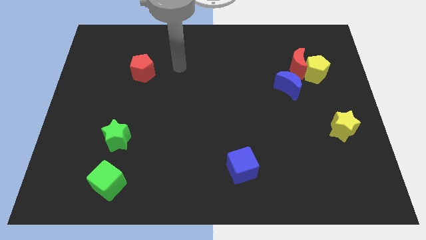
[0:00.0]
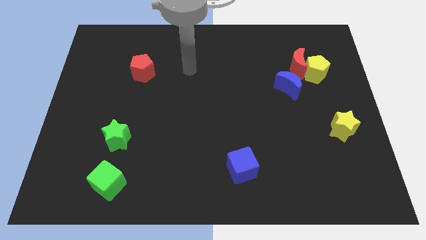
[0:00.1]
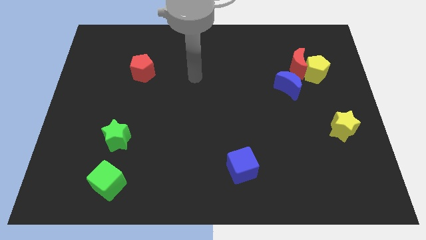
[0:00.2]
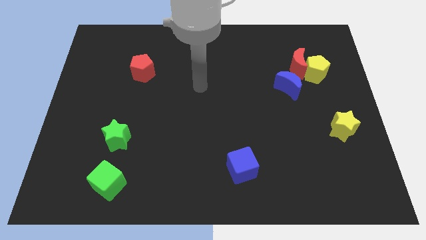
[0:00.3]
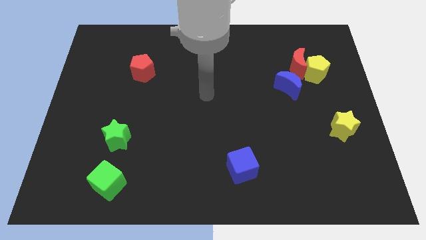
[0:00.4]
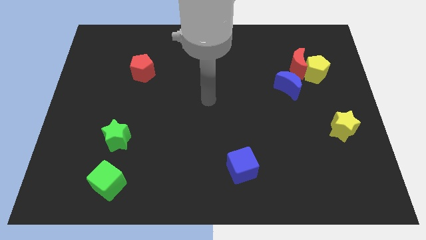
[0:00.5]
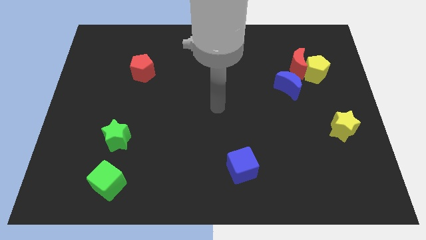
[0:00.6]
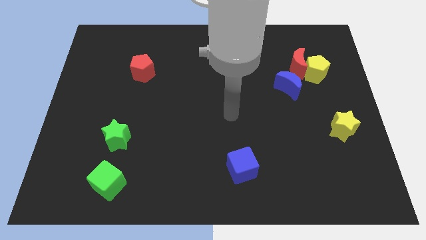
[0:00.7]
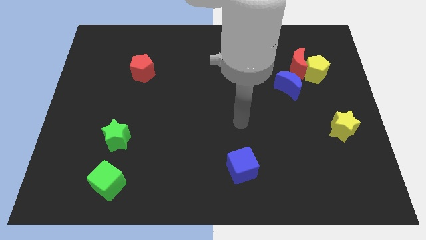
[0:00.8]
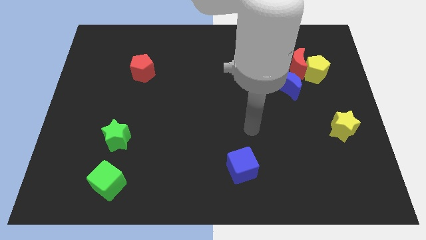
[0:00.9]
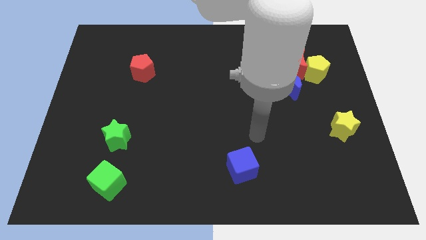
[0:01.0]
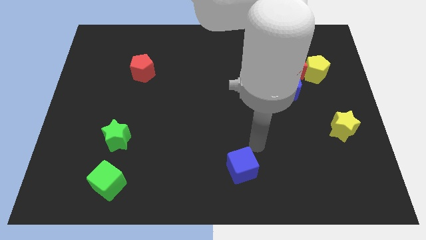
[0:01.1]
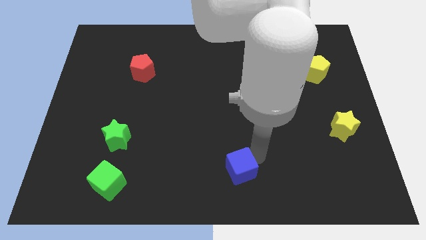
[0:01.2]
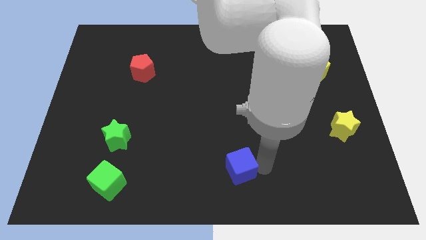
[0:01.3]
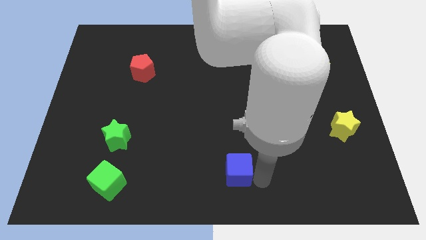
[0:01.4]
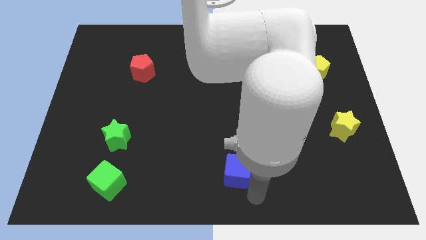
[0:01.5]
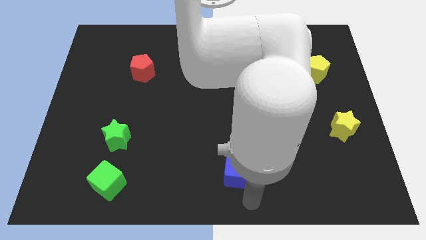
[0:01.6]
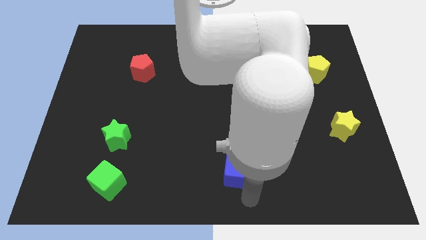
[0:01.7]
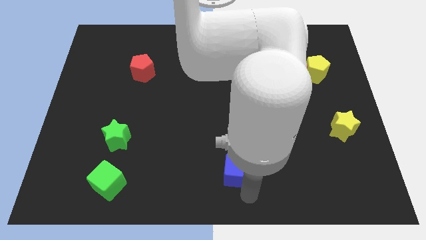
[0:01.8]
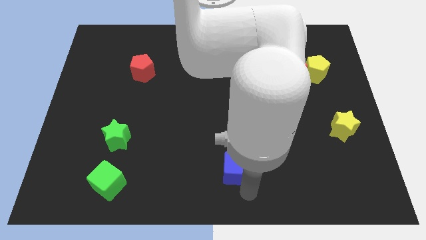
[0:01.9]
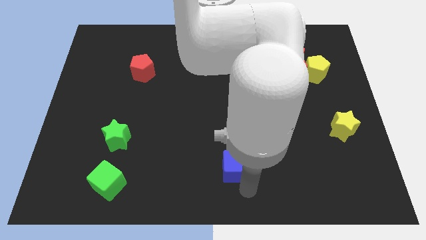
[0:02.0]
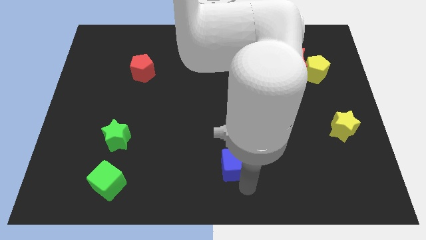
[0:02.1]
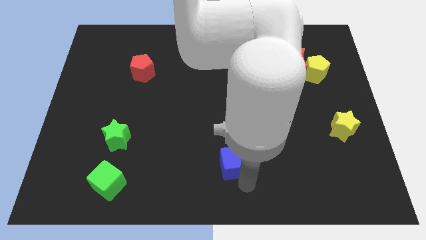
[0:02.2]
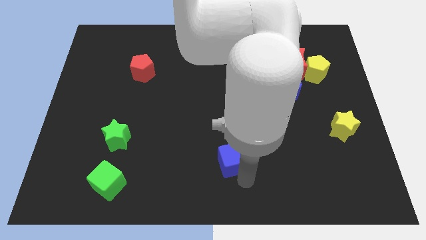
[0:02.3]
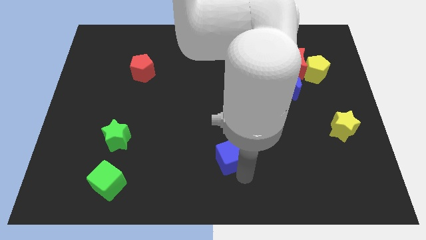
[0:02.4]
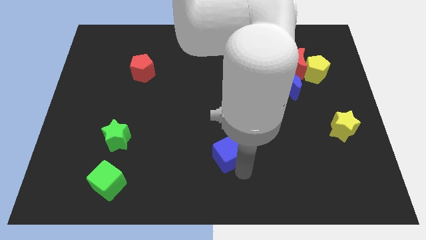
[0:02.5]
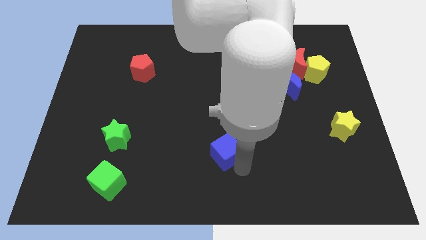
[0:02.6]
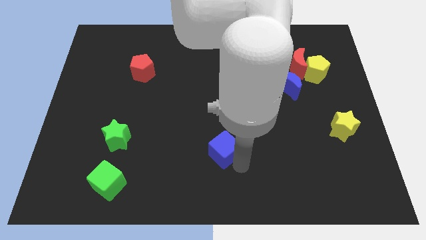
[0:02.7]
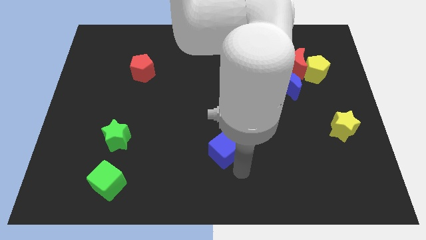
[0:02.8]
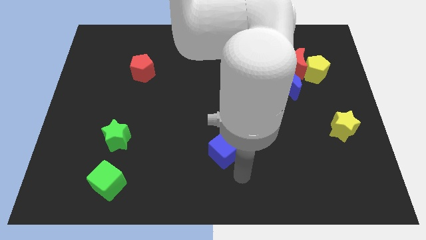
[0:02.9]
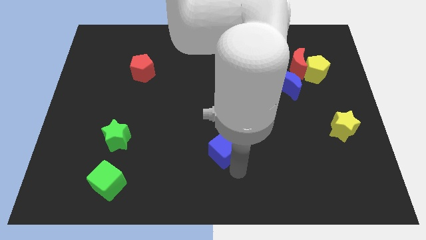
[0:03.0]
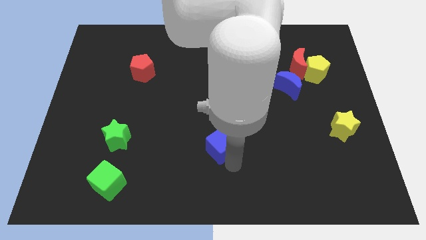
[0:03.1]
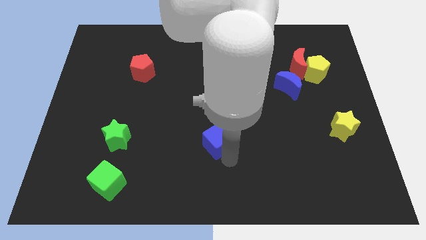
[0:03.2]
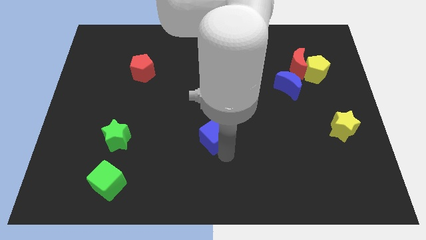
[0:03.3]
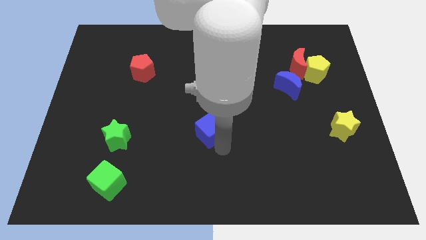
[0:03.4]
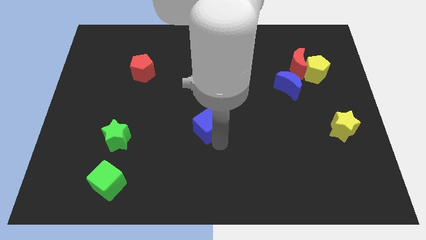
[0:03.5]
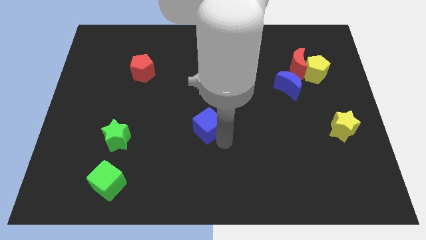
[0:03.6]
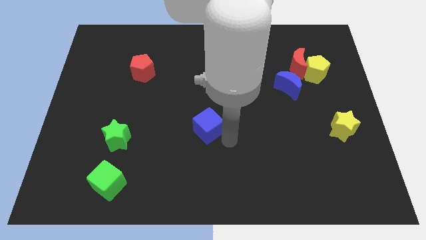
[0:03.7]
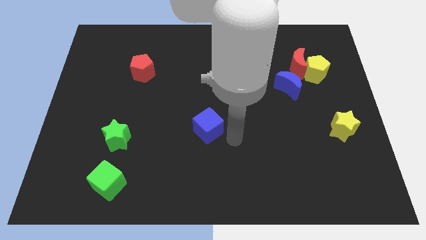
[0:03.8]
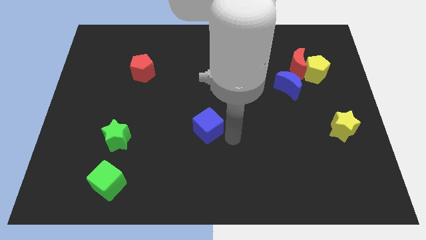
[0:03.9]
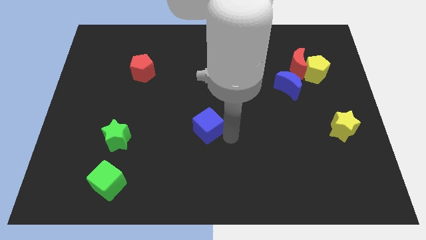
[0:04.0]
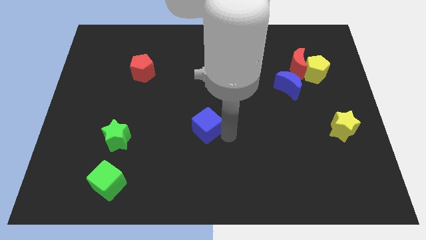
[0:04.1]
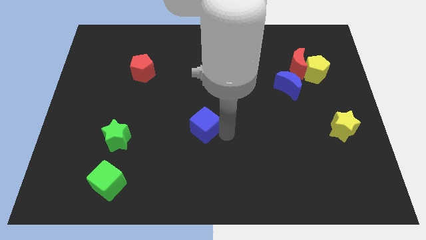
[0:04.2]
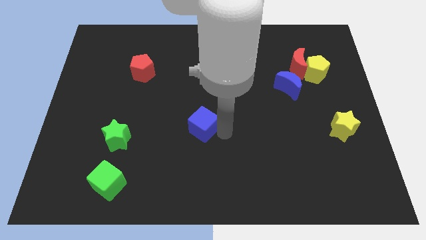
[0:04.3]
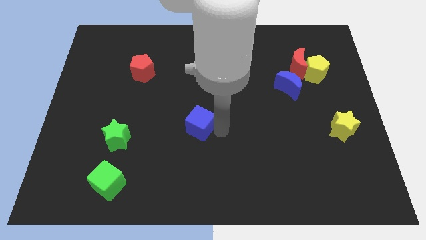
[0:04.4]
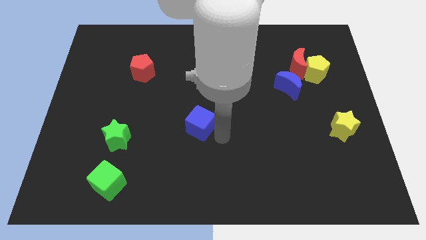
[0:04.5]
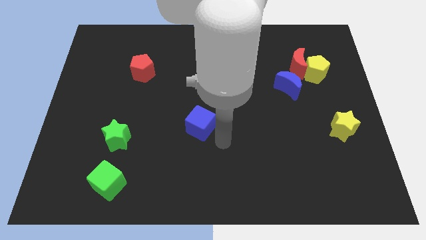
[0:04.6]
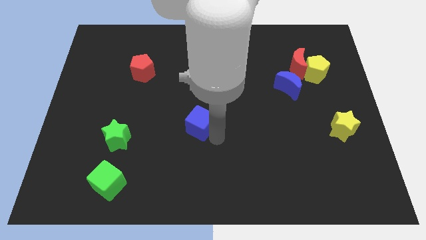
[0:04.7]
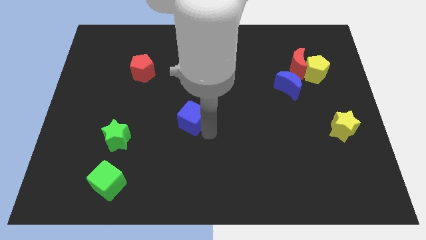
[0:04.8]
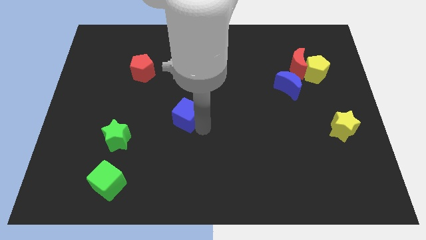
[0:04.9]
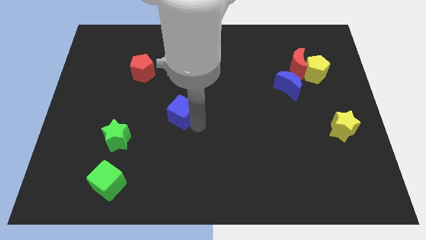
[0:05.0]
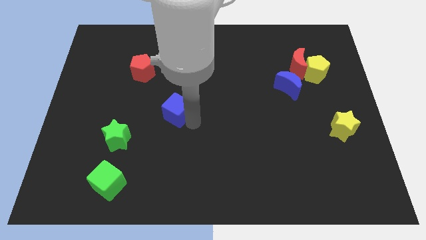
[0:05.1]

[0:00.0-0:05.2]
move the blue cube up and left

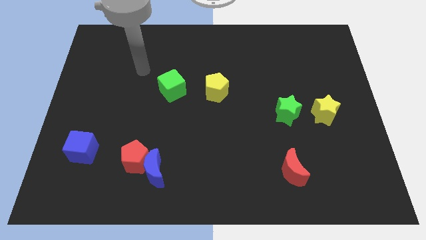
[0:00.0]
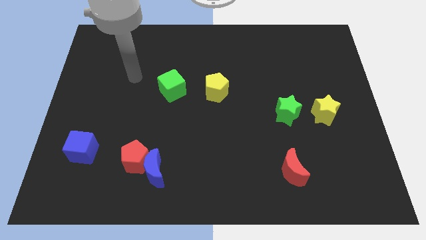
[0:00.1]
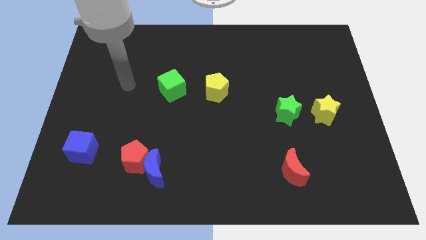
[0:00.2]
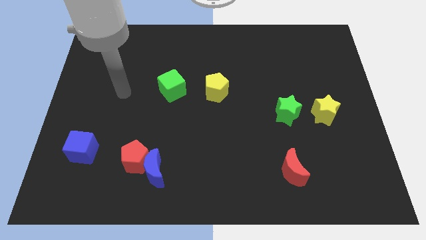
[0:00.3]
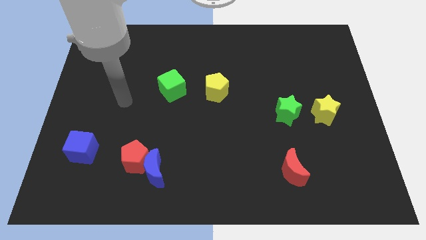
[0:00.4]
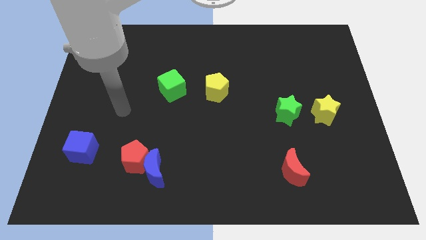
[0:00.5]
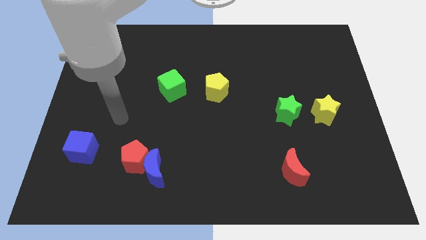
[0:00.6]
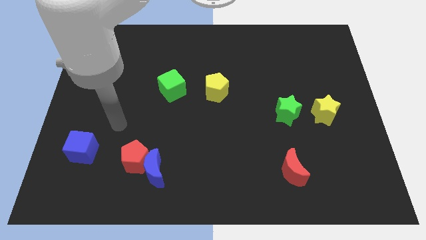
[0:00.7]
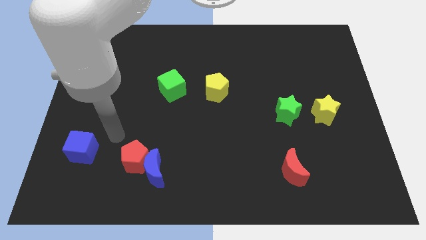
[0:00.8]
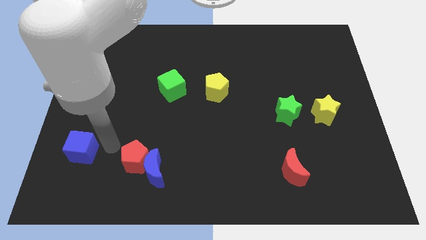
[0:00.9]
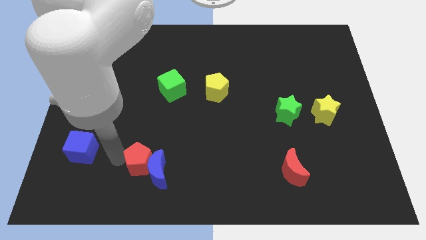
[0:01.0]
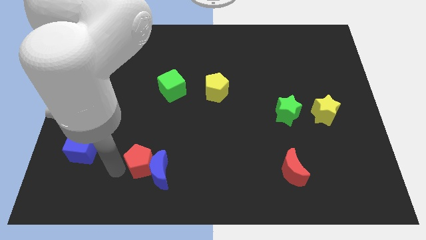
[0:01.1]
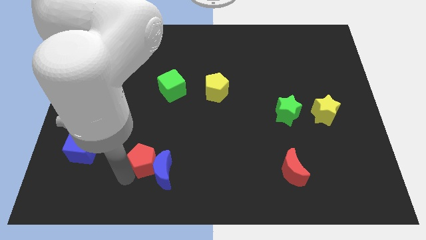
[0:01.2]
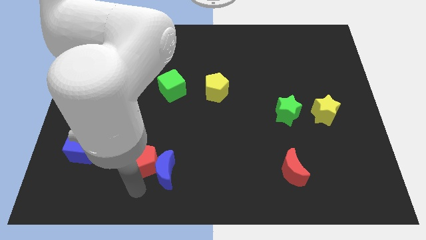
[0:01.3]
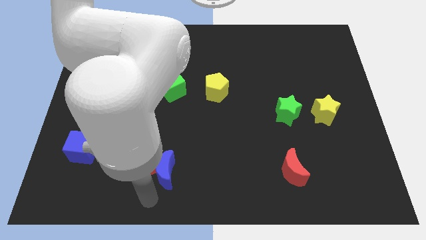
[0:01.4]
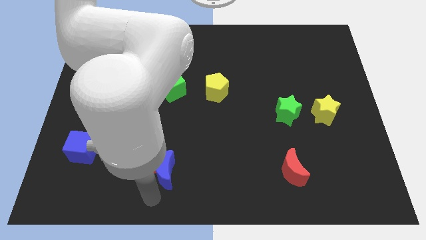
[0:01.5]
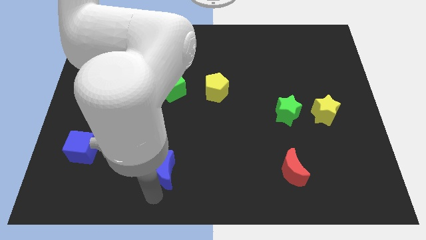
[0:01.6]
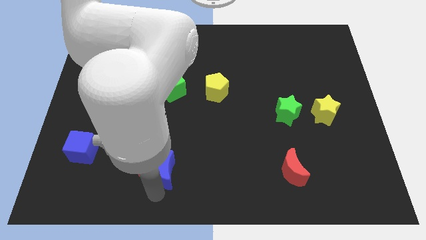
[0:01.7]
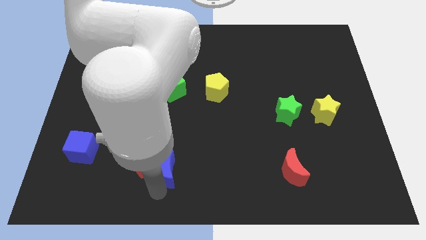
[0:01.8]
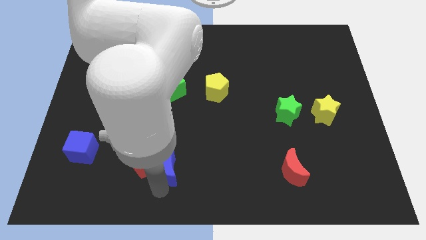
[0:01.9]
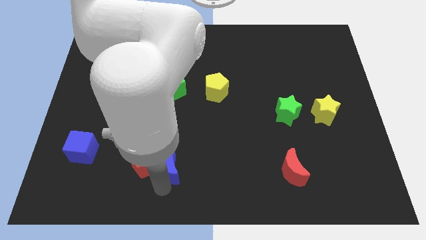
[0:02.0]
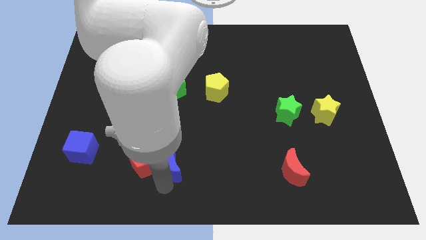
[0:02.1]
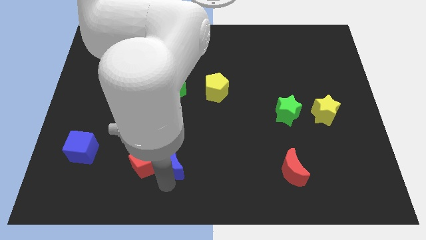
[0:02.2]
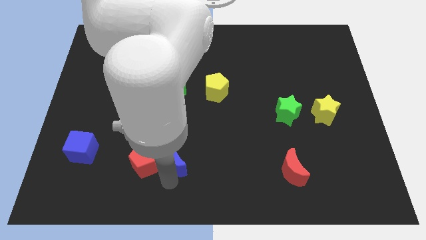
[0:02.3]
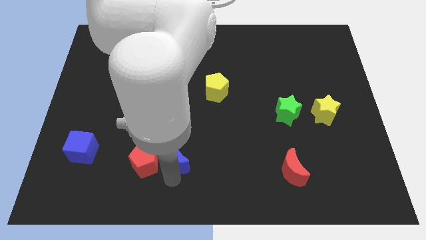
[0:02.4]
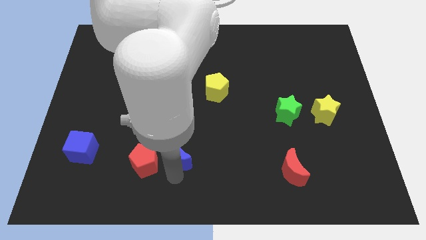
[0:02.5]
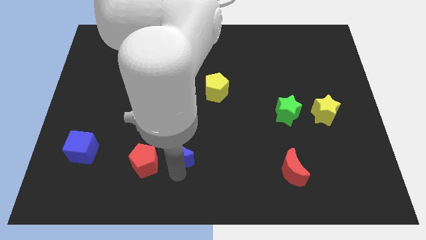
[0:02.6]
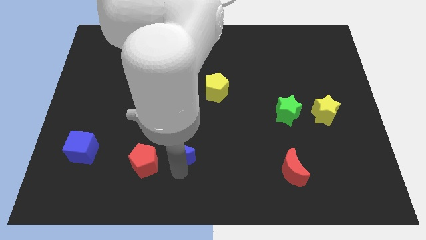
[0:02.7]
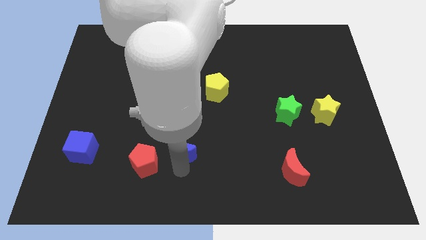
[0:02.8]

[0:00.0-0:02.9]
slightly push the blue moon diagonally upwards and to the right

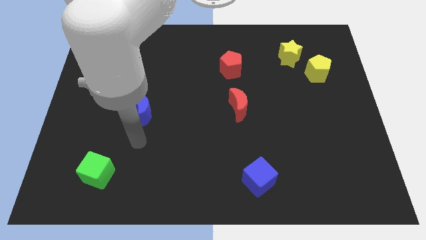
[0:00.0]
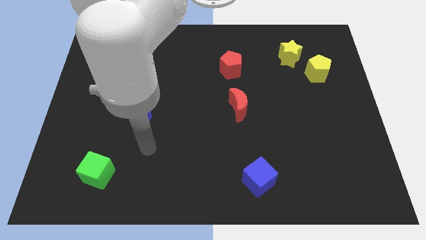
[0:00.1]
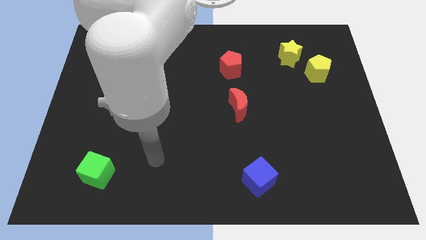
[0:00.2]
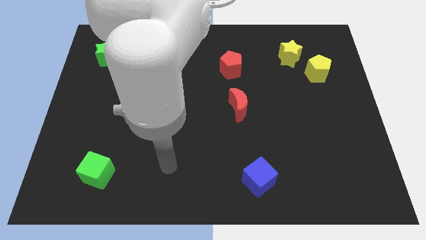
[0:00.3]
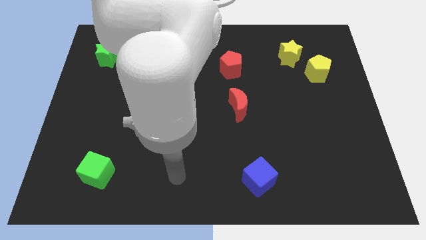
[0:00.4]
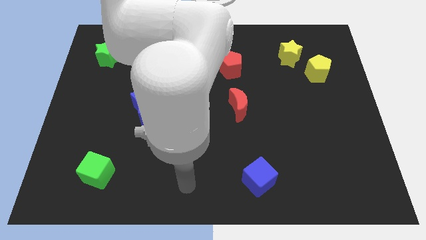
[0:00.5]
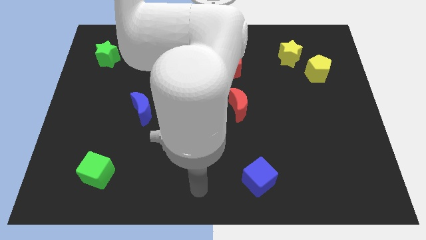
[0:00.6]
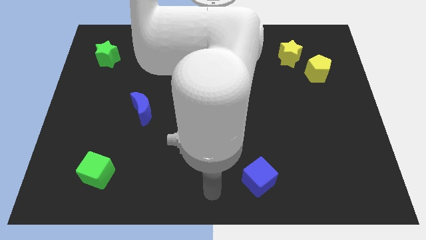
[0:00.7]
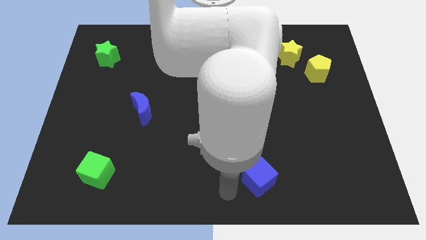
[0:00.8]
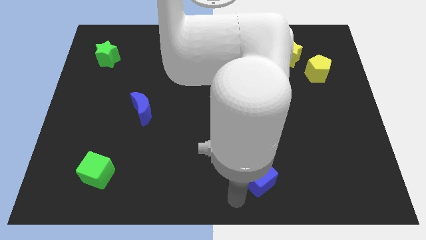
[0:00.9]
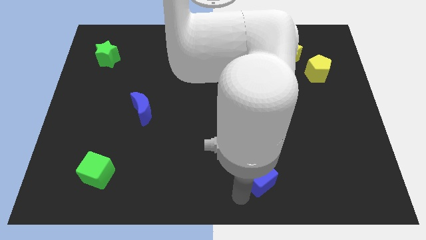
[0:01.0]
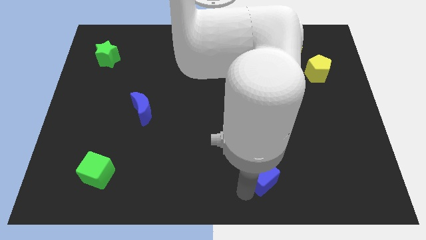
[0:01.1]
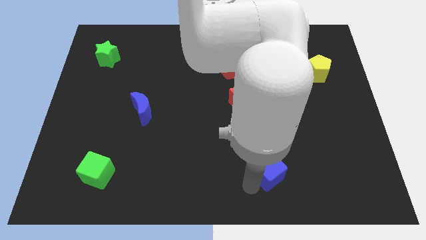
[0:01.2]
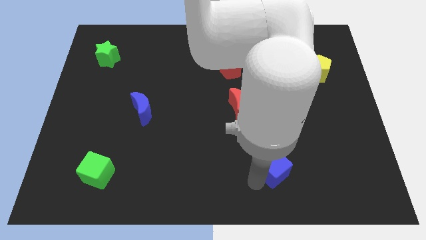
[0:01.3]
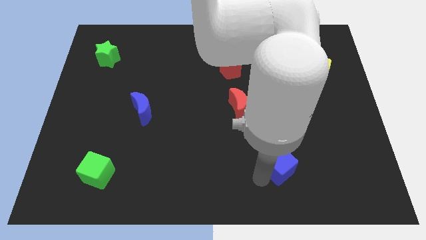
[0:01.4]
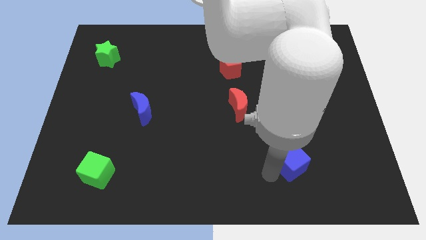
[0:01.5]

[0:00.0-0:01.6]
push the blue cube diagonally upwards and to the right a little
